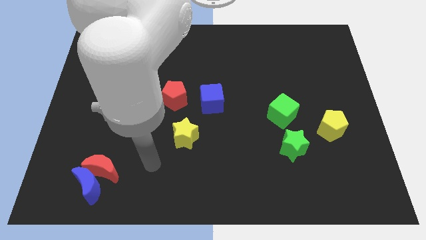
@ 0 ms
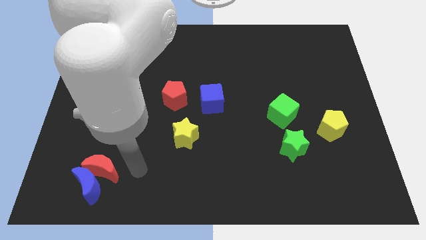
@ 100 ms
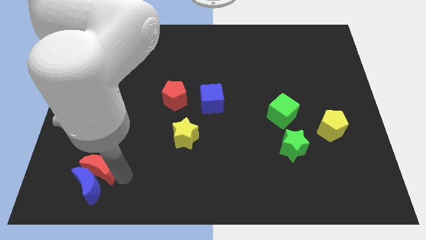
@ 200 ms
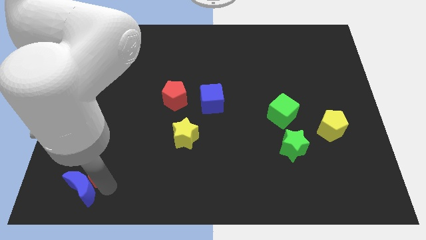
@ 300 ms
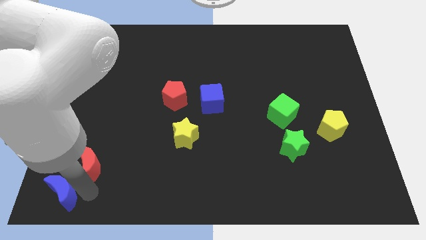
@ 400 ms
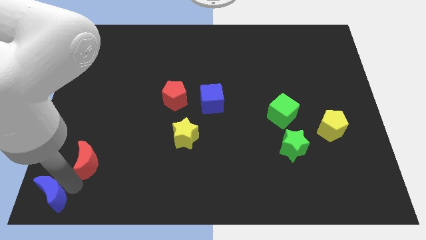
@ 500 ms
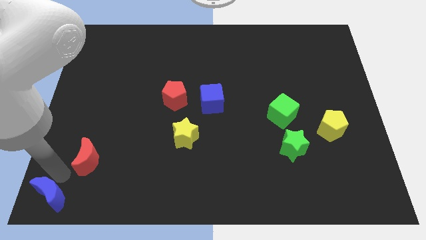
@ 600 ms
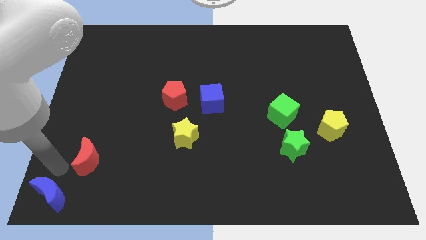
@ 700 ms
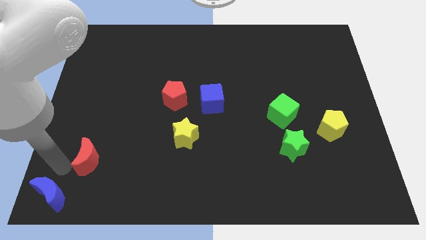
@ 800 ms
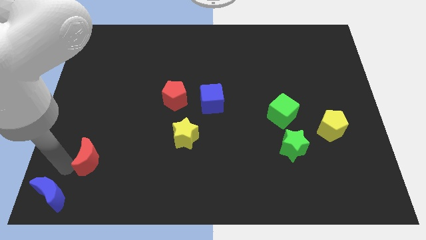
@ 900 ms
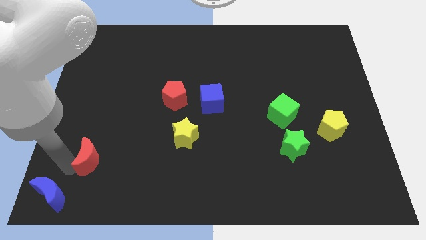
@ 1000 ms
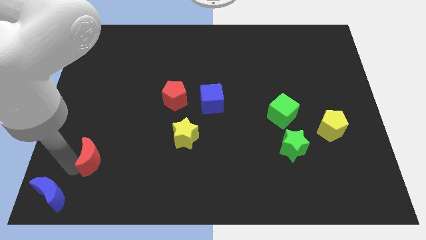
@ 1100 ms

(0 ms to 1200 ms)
move the red moon away from the blue moon

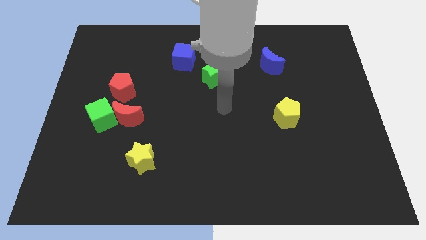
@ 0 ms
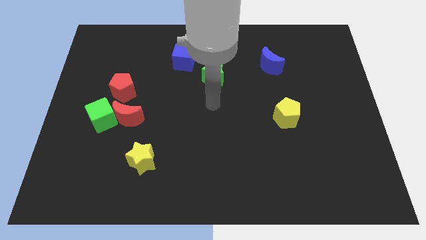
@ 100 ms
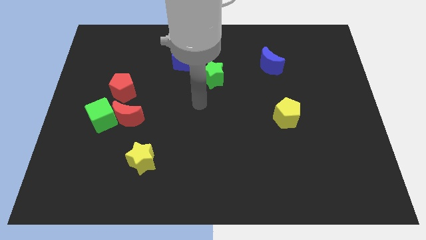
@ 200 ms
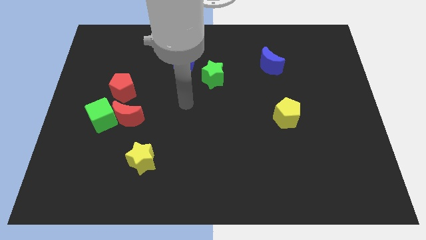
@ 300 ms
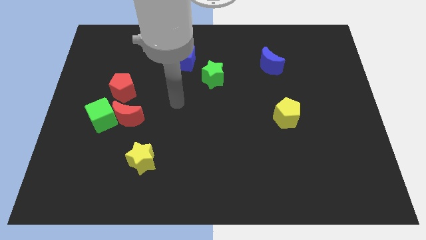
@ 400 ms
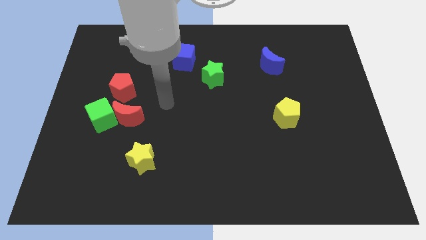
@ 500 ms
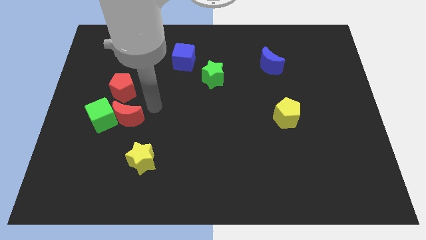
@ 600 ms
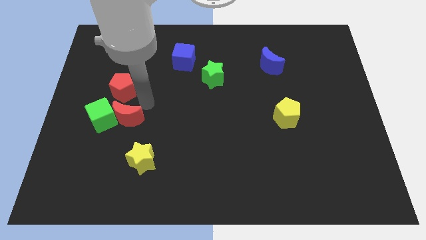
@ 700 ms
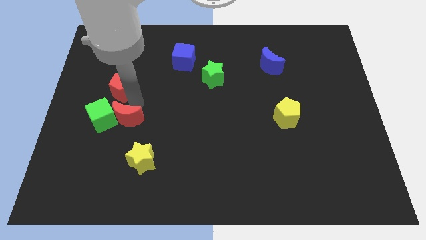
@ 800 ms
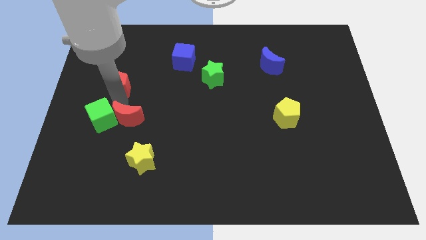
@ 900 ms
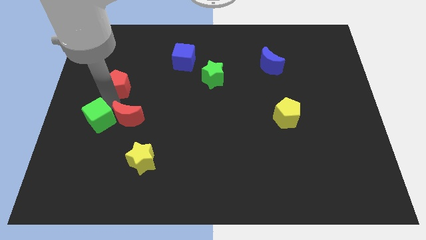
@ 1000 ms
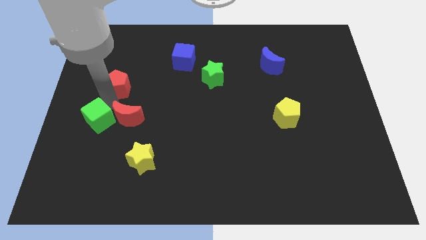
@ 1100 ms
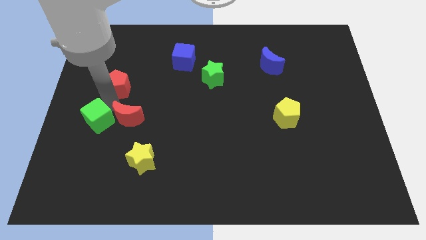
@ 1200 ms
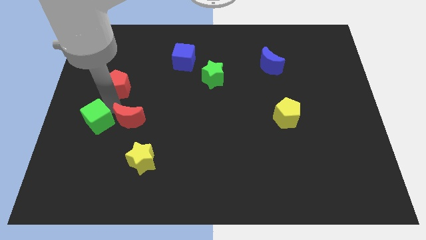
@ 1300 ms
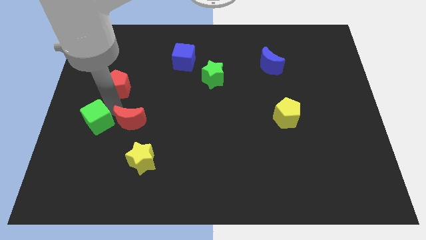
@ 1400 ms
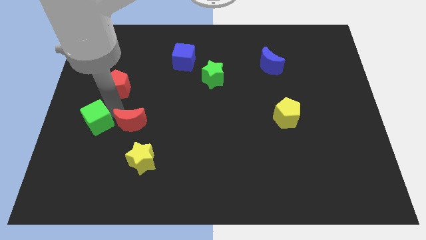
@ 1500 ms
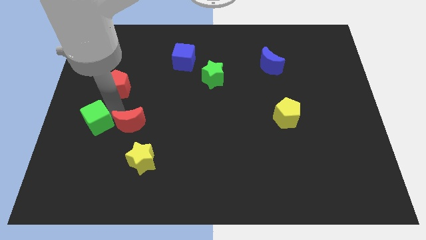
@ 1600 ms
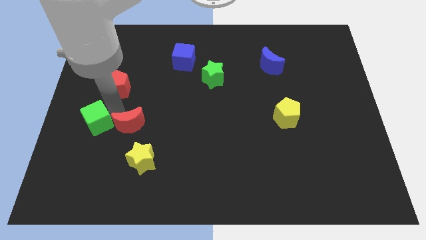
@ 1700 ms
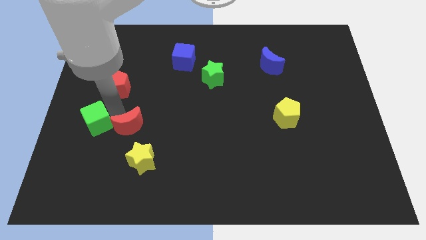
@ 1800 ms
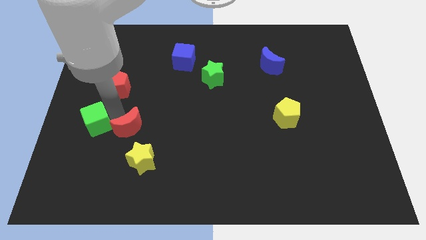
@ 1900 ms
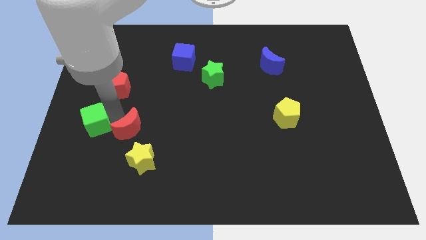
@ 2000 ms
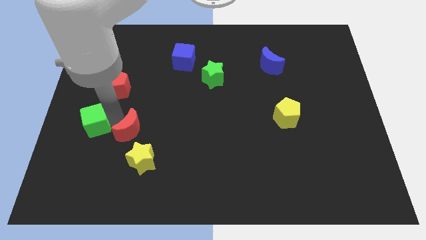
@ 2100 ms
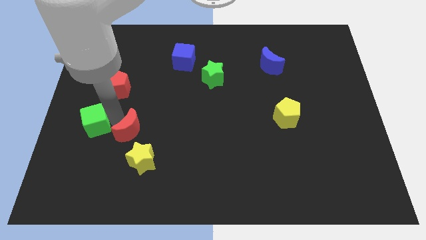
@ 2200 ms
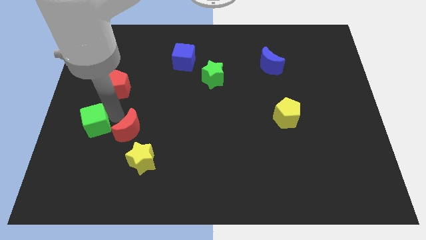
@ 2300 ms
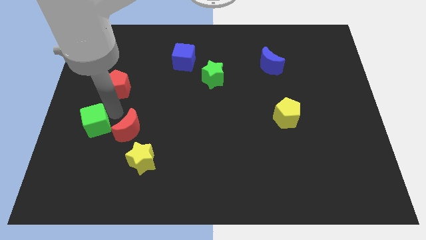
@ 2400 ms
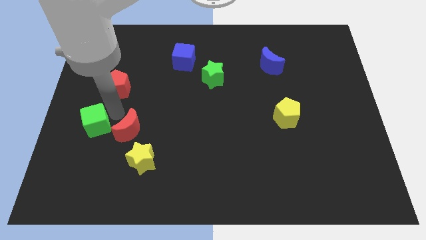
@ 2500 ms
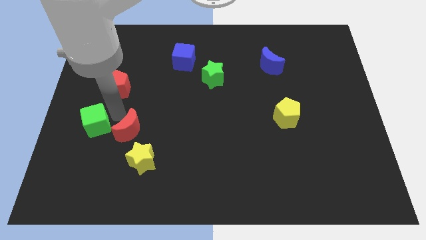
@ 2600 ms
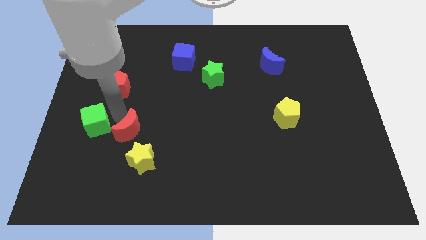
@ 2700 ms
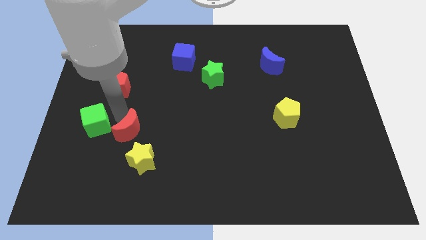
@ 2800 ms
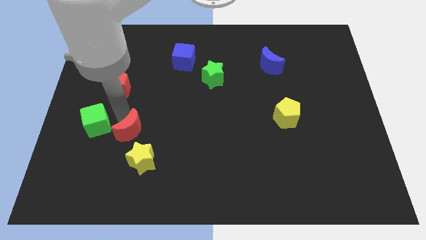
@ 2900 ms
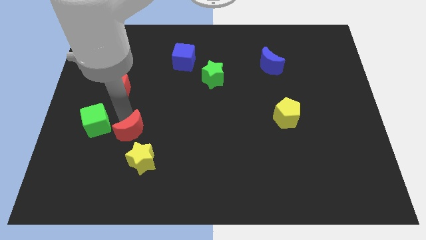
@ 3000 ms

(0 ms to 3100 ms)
move the red moon away from the green cube and red pentagon

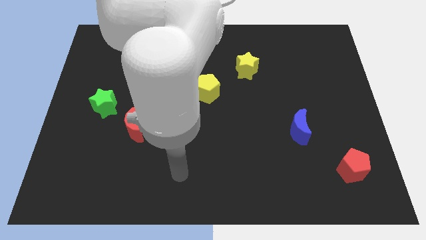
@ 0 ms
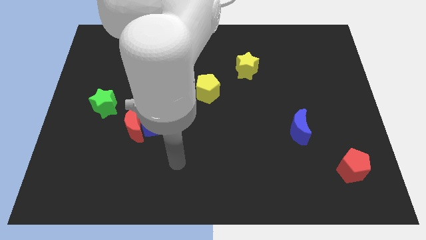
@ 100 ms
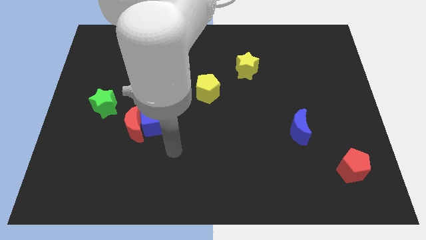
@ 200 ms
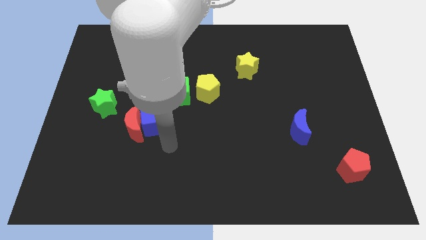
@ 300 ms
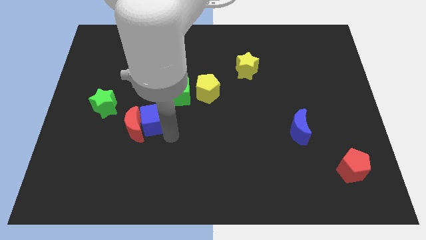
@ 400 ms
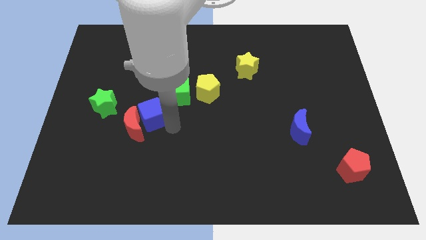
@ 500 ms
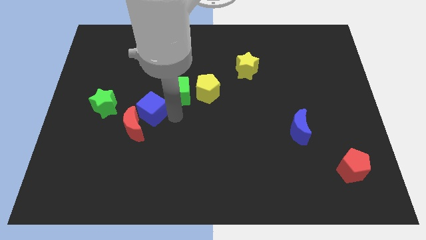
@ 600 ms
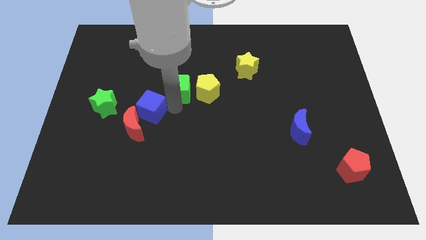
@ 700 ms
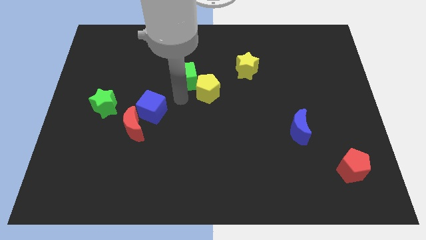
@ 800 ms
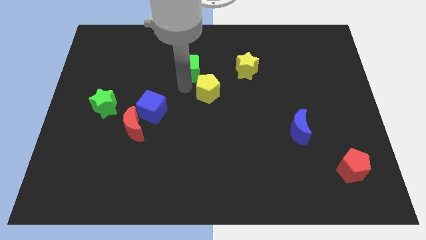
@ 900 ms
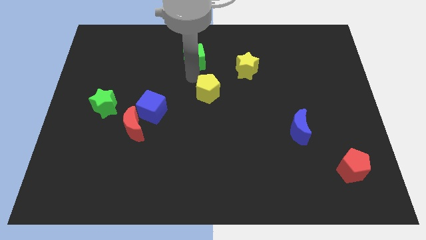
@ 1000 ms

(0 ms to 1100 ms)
separate the yellow pentagon from the green cube

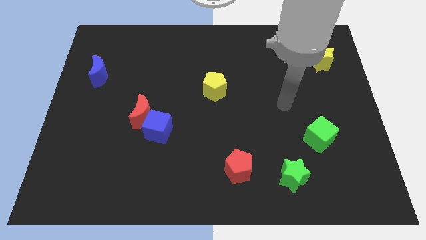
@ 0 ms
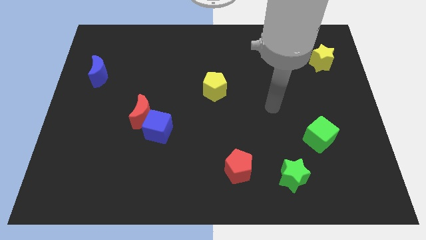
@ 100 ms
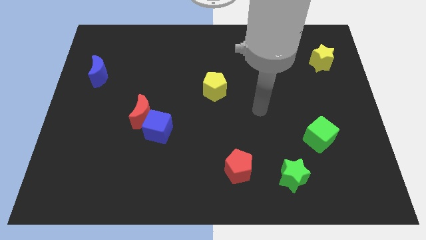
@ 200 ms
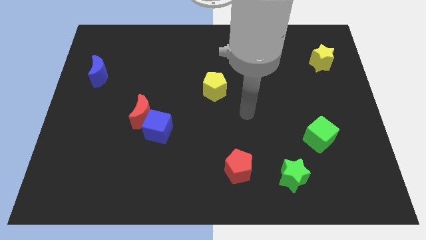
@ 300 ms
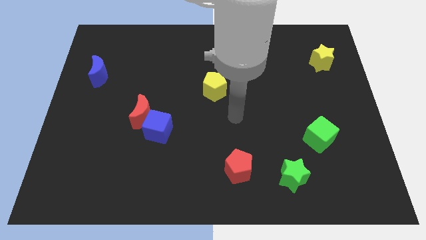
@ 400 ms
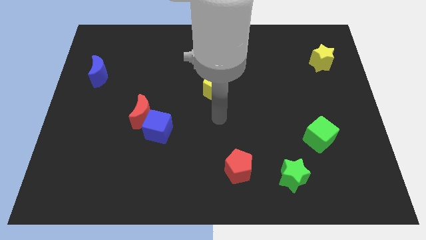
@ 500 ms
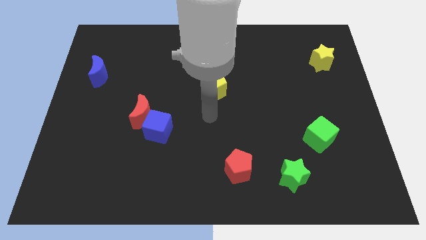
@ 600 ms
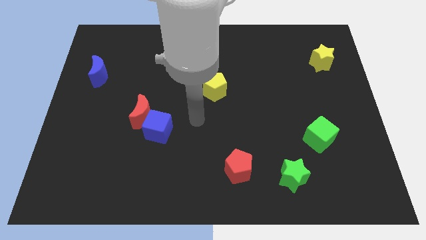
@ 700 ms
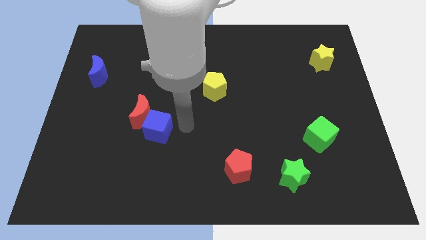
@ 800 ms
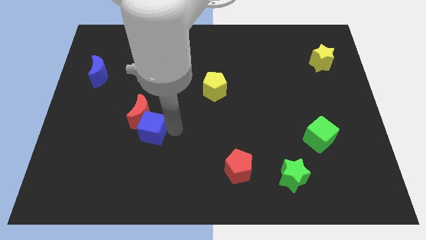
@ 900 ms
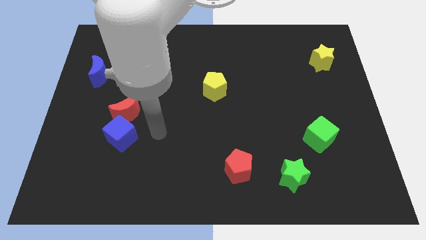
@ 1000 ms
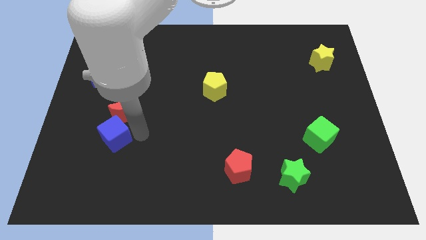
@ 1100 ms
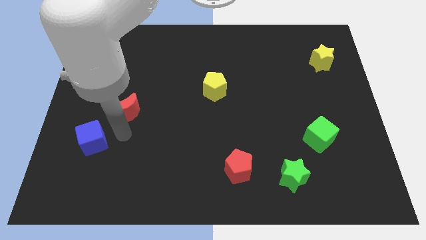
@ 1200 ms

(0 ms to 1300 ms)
separate the red moon from the blue cube

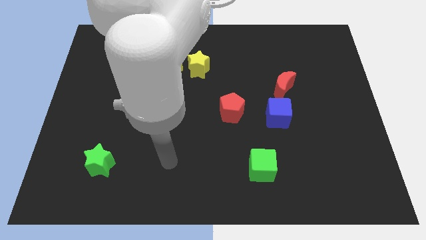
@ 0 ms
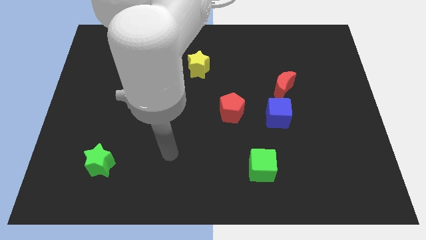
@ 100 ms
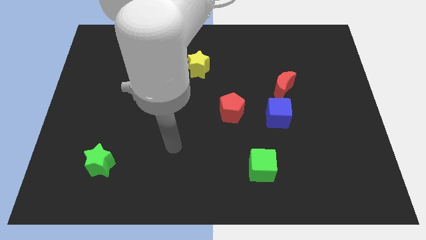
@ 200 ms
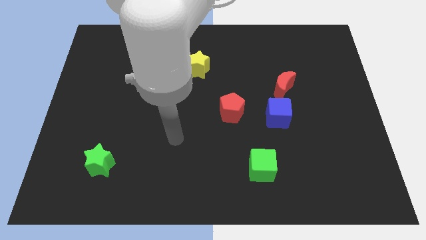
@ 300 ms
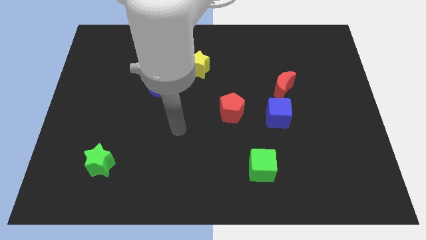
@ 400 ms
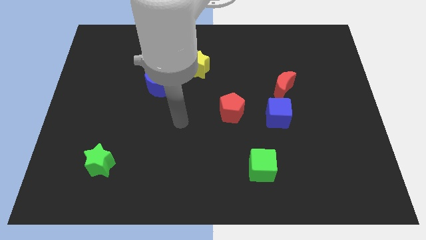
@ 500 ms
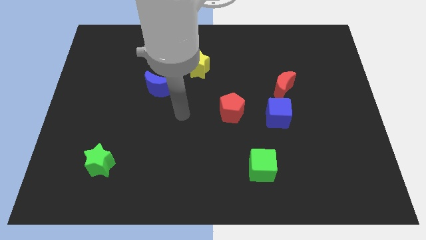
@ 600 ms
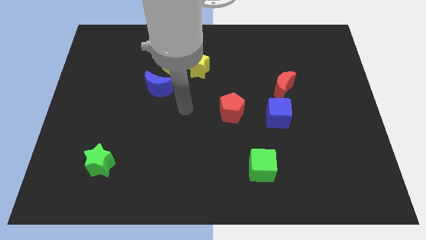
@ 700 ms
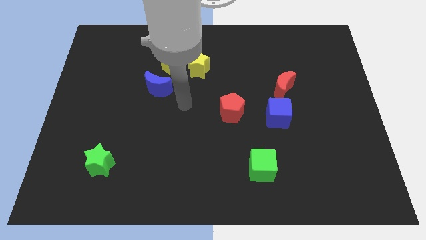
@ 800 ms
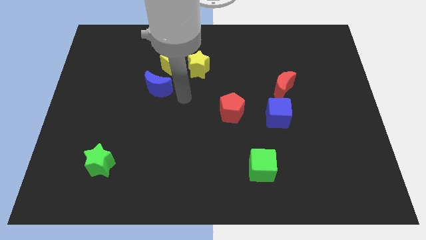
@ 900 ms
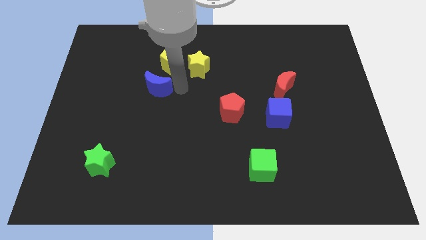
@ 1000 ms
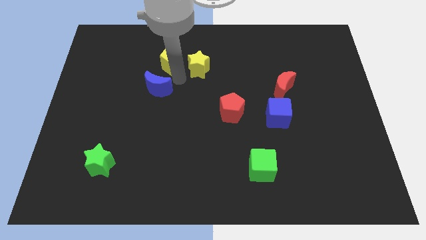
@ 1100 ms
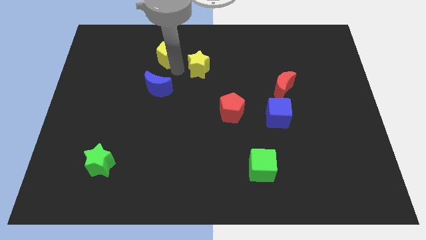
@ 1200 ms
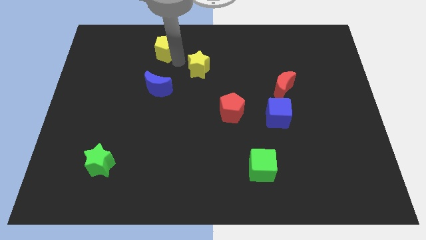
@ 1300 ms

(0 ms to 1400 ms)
move the yellow star away from the yellow pentagon

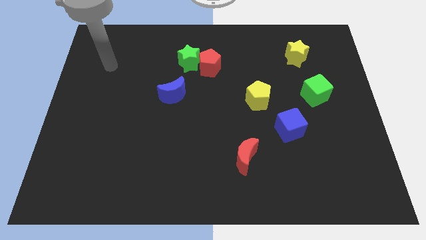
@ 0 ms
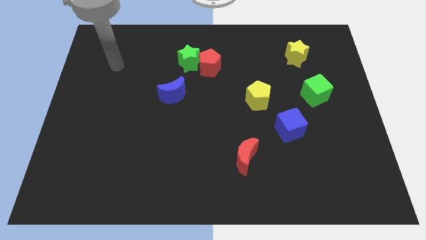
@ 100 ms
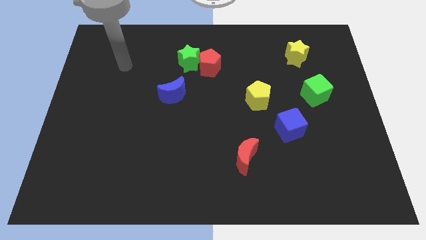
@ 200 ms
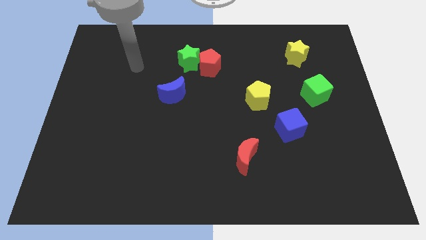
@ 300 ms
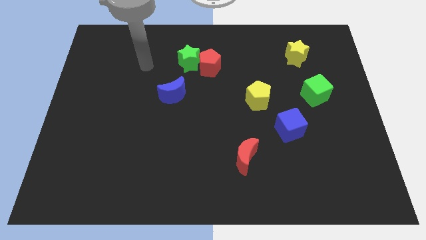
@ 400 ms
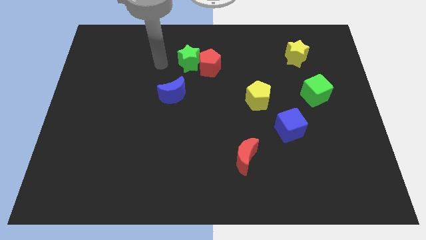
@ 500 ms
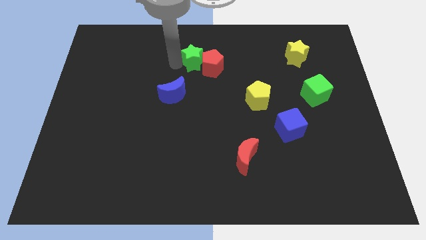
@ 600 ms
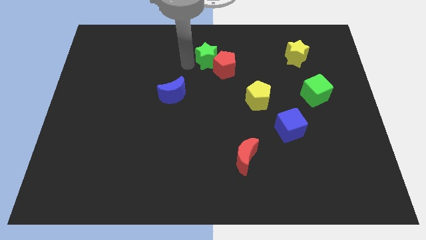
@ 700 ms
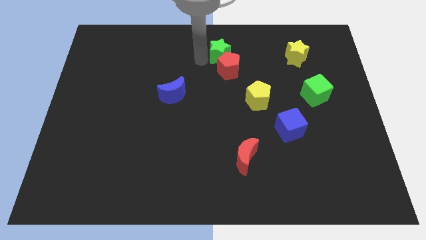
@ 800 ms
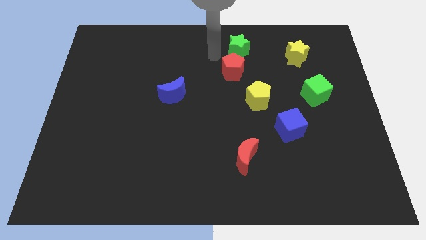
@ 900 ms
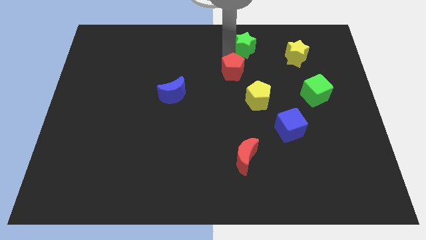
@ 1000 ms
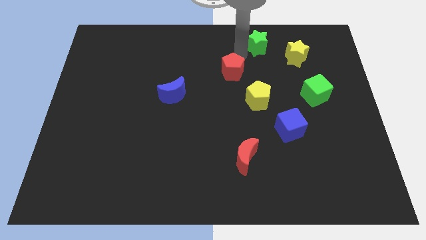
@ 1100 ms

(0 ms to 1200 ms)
pull the red pentagon apart from the green star
